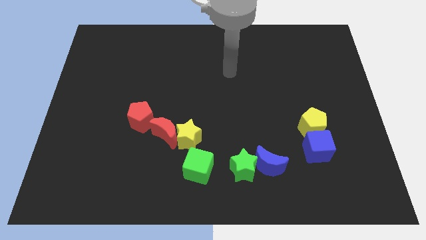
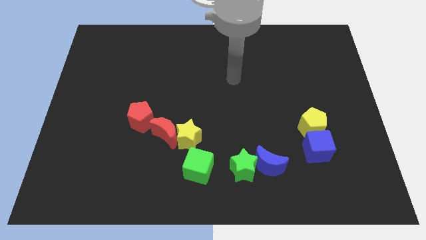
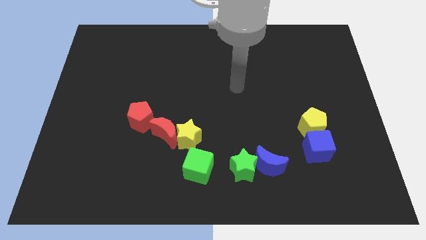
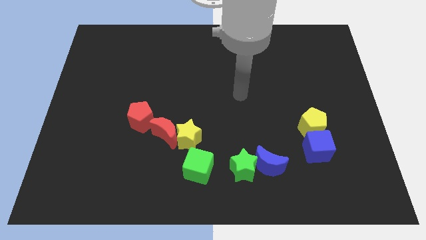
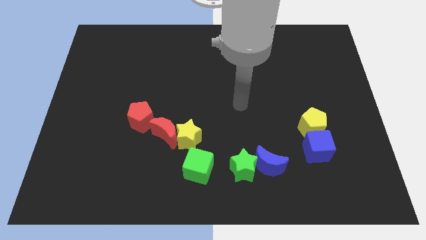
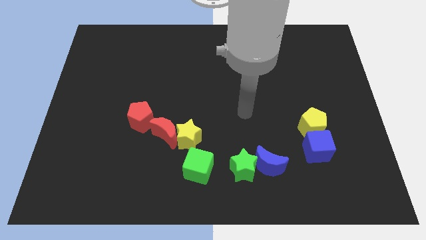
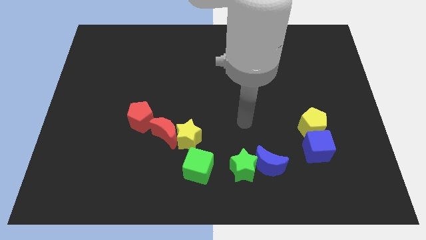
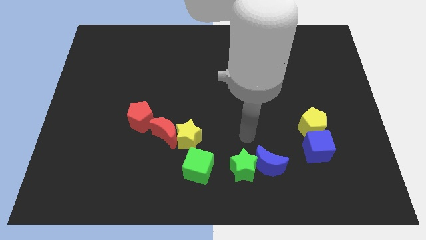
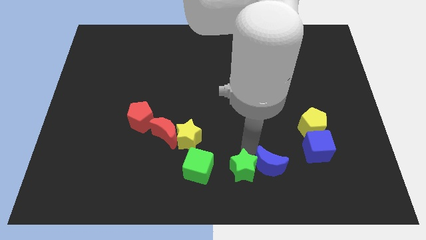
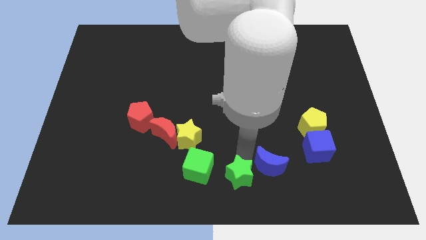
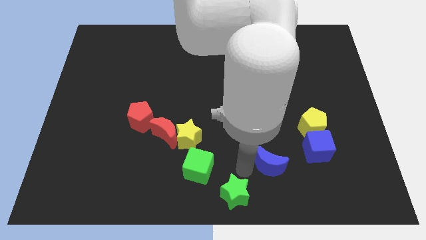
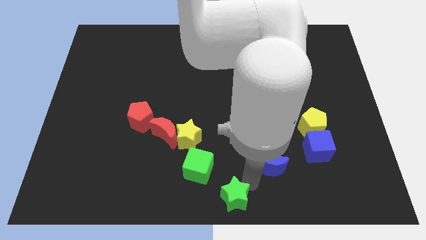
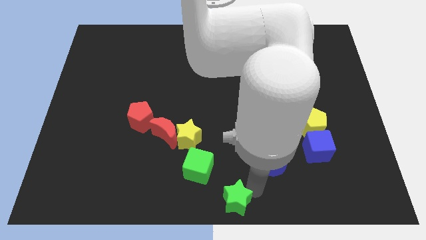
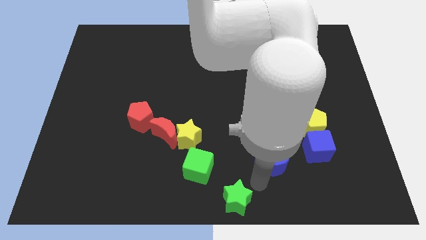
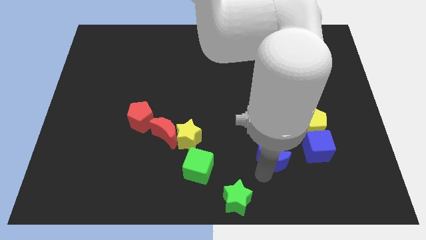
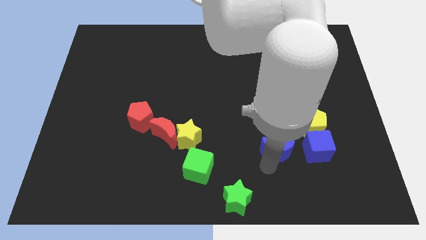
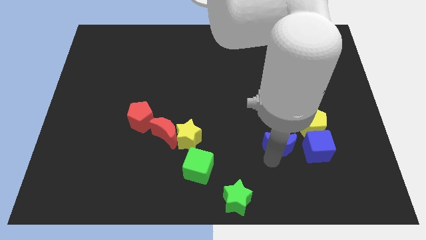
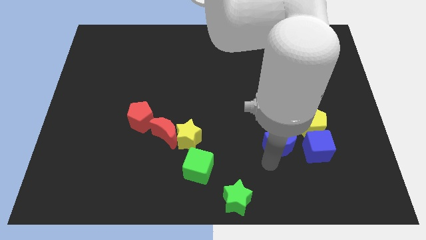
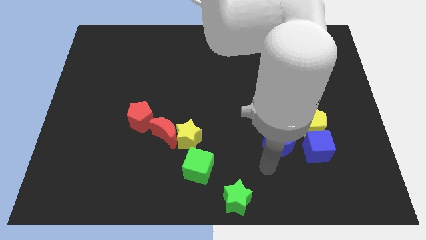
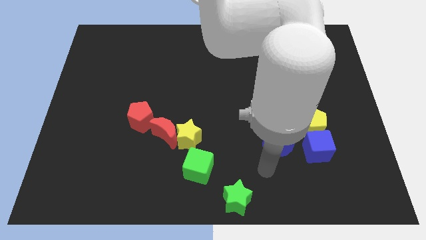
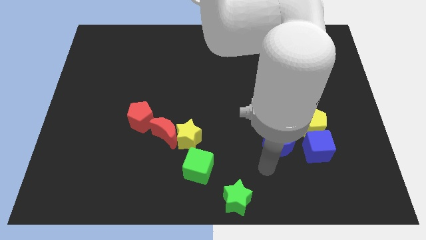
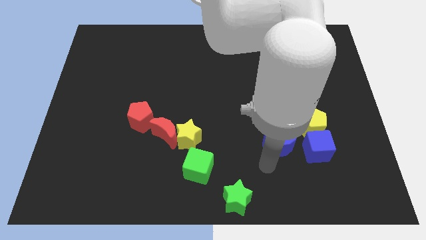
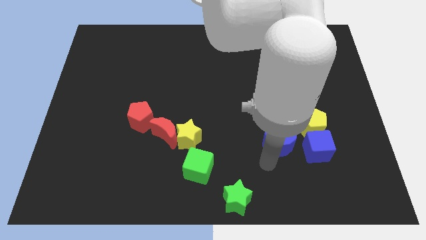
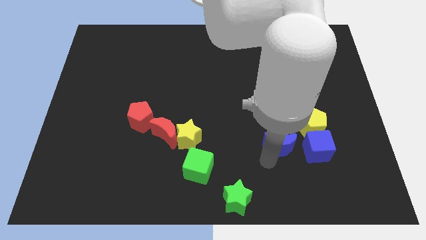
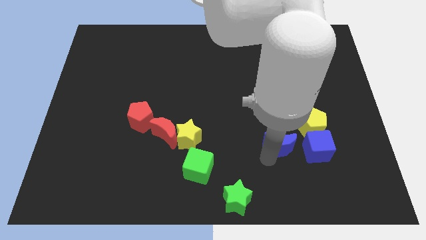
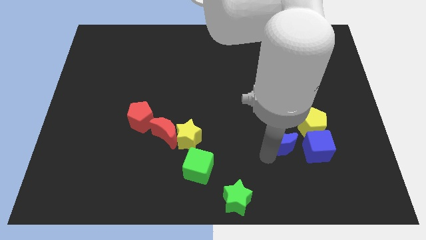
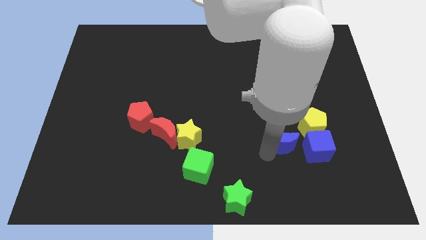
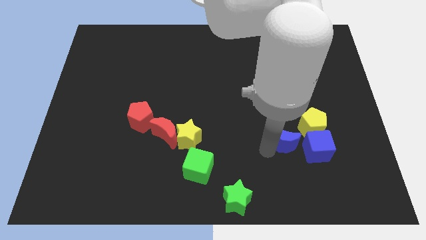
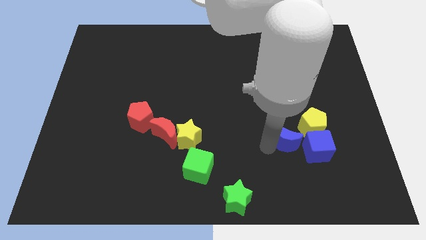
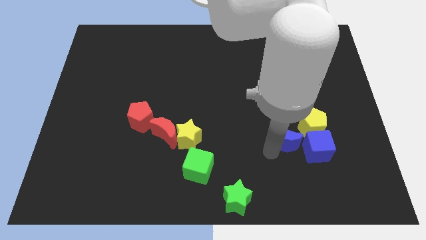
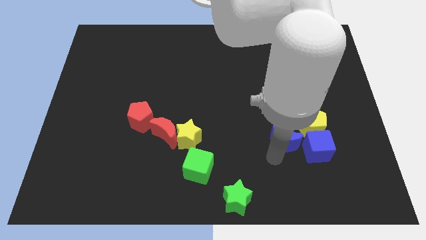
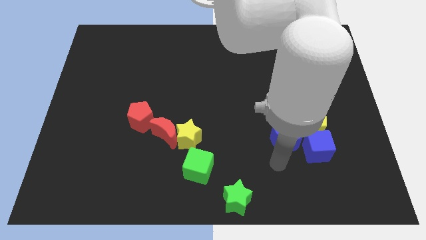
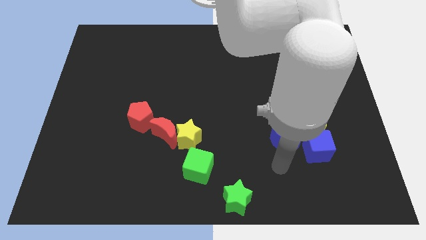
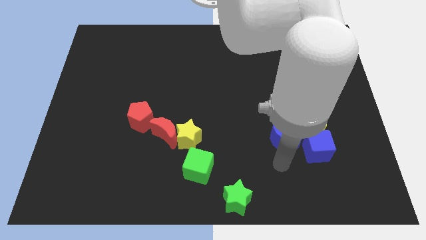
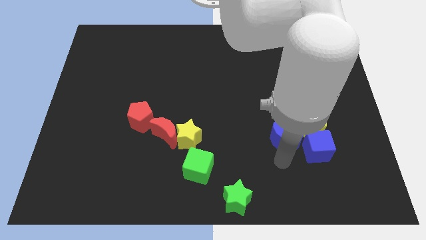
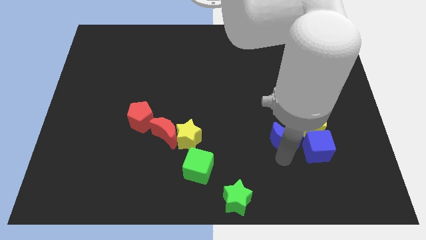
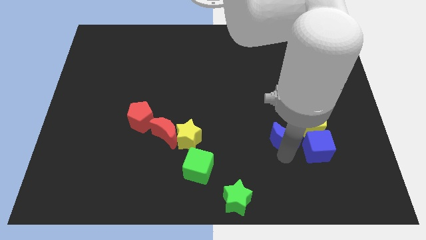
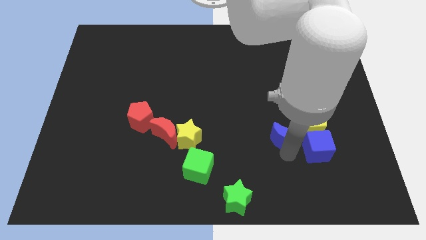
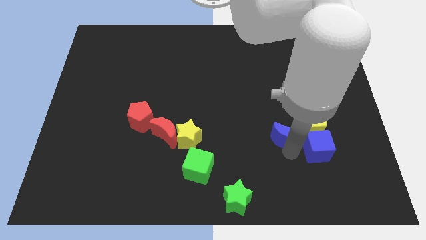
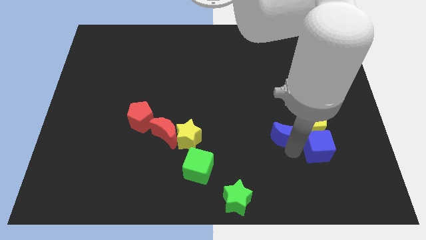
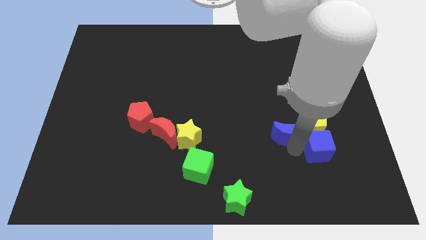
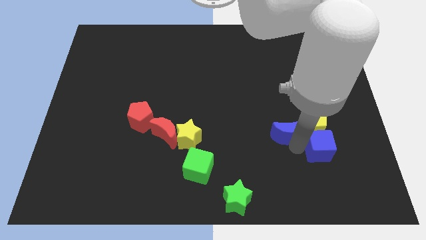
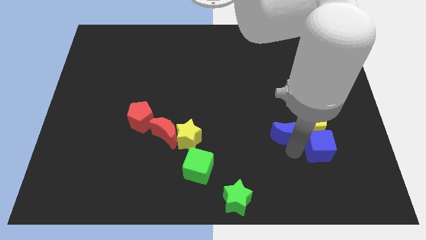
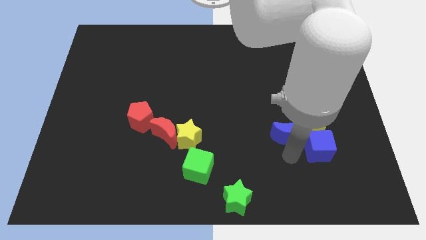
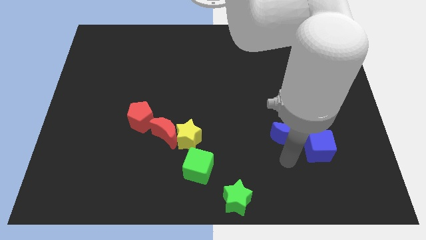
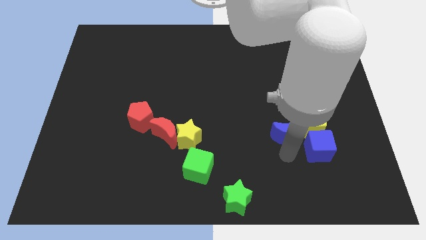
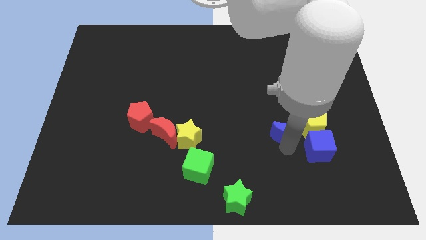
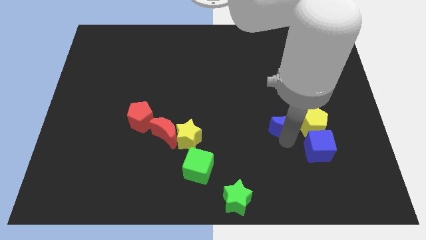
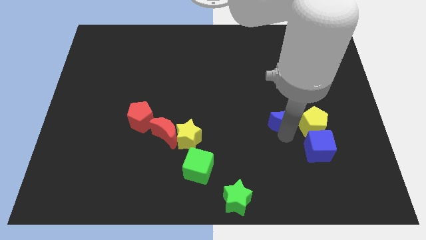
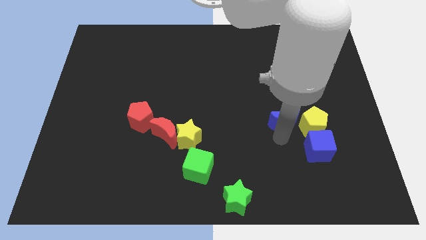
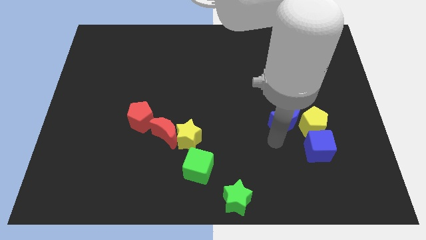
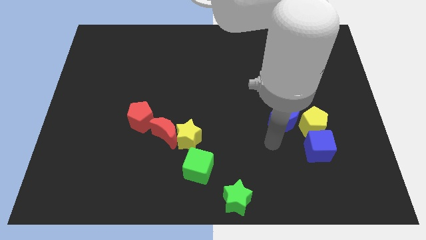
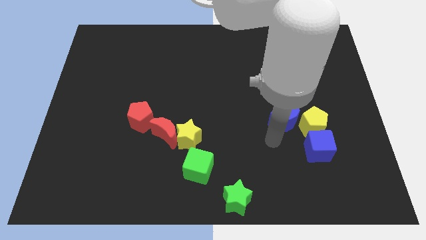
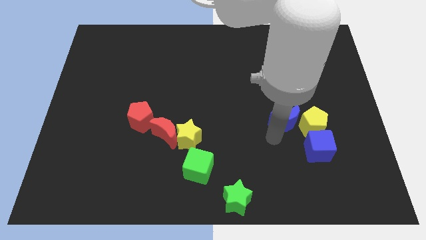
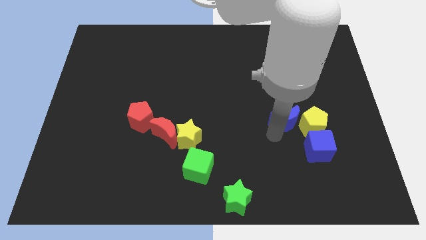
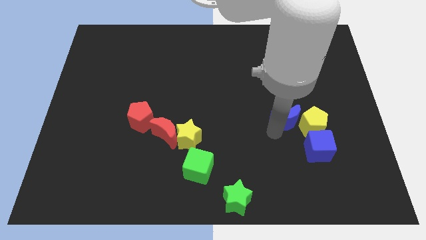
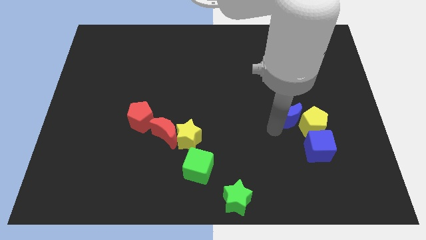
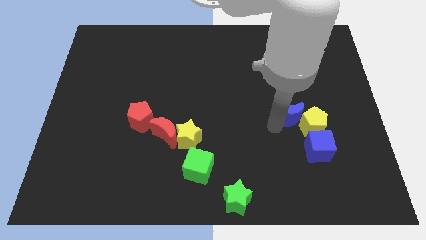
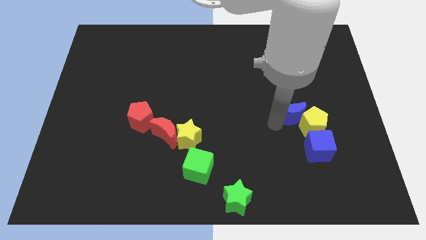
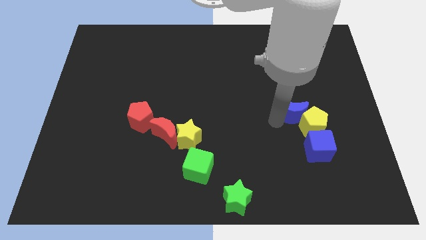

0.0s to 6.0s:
slide the blue moon to the top side of the yellow pentagon

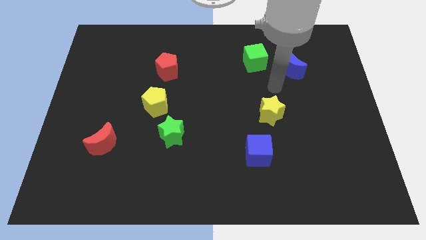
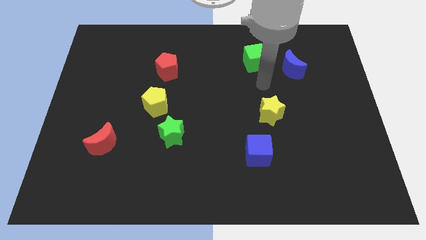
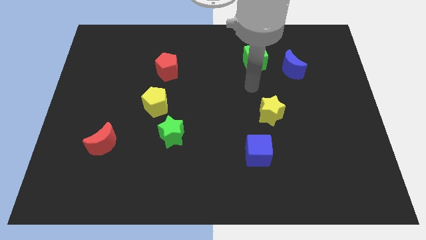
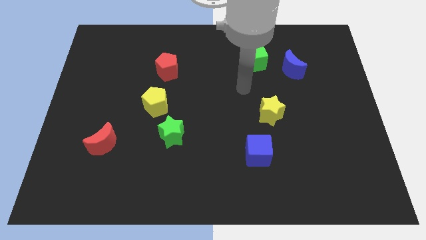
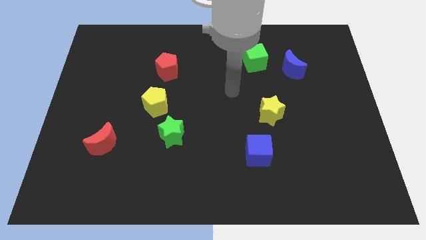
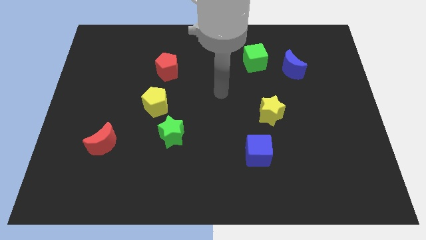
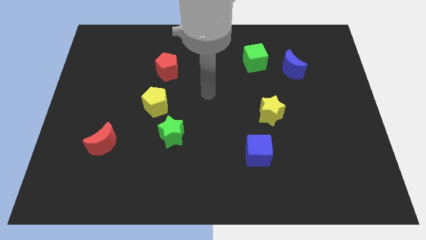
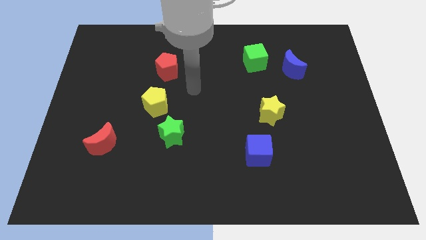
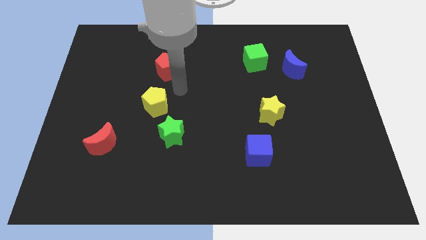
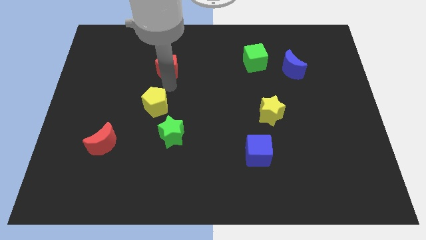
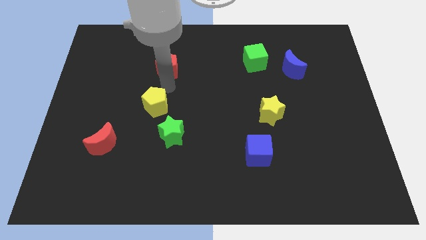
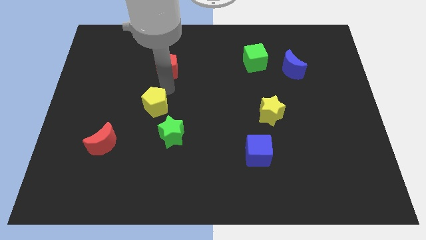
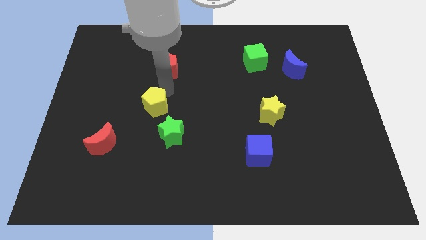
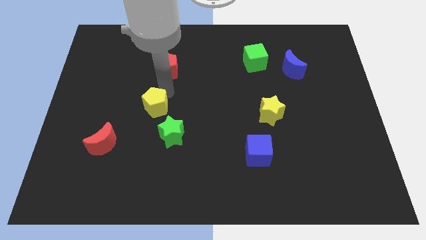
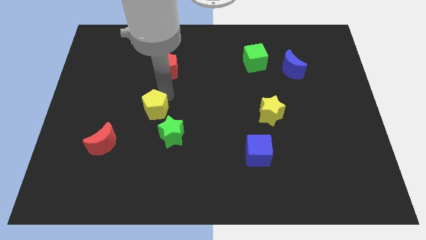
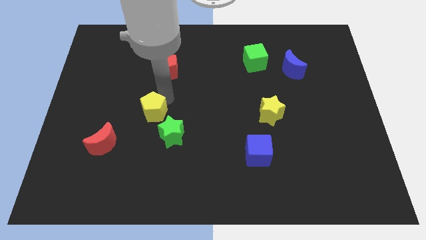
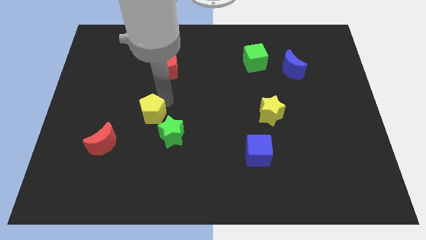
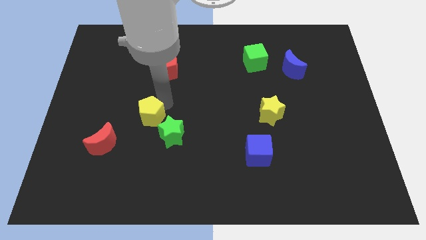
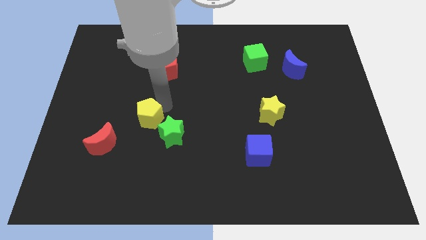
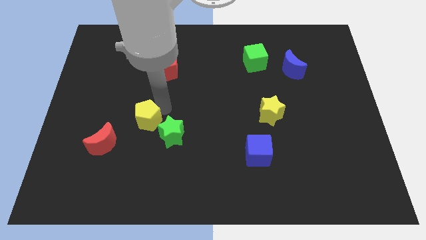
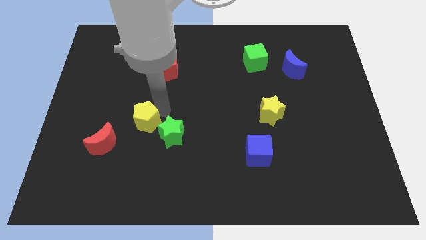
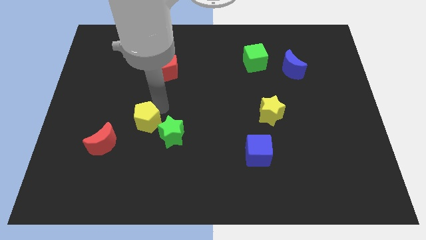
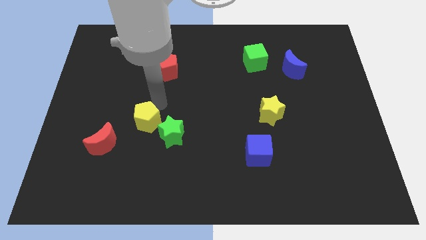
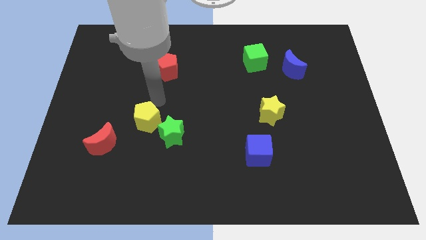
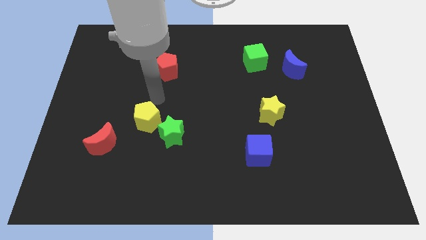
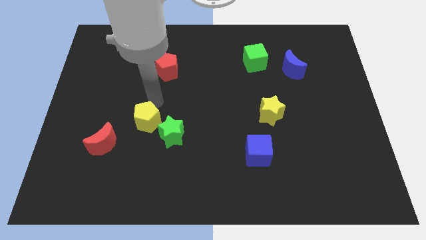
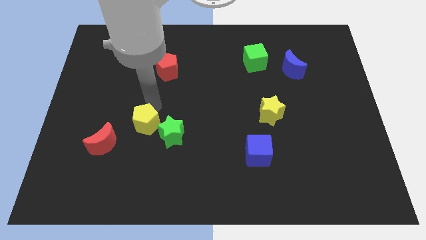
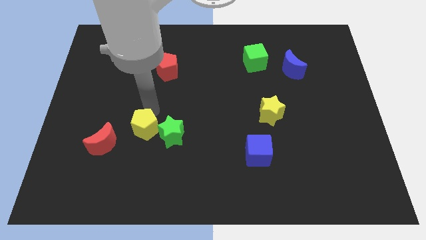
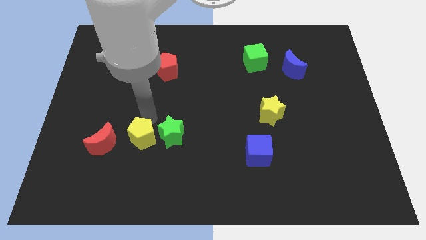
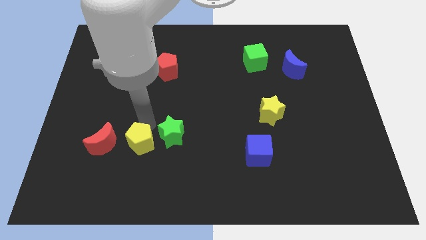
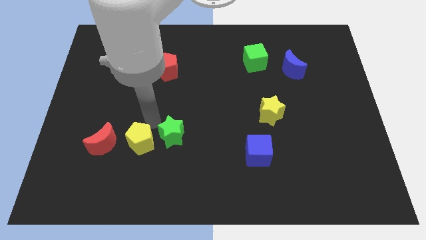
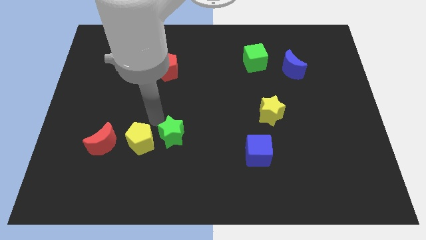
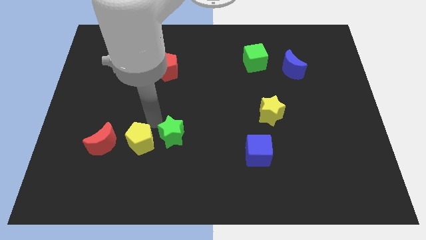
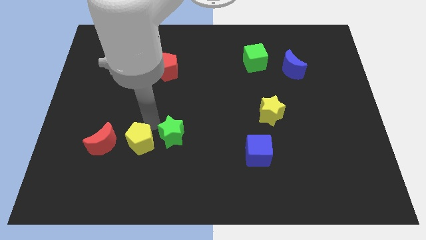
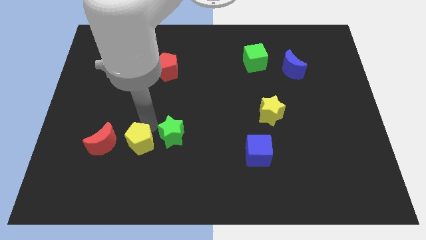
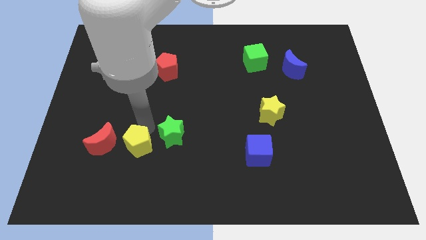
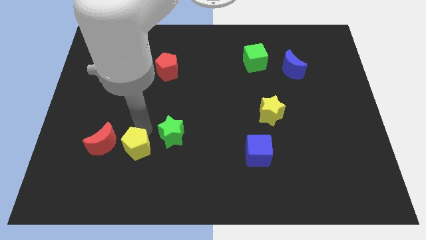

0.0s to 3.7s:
slide the yellow pentagon diagonally down and to the right of the red moon
